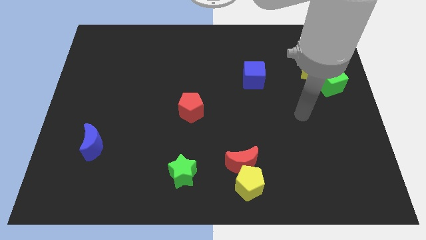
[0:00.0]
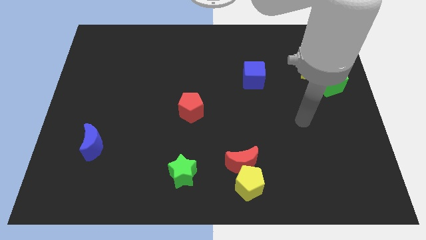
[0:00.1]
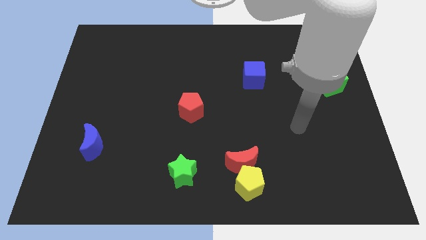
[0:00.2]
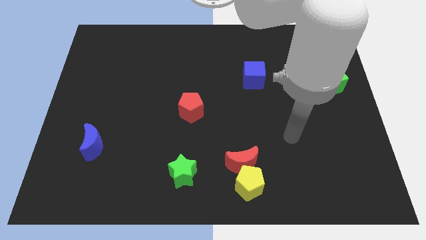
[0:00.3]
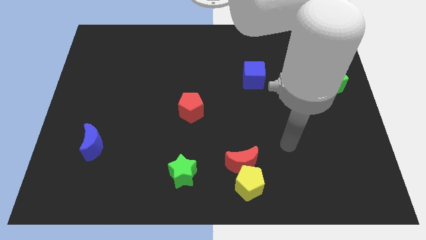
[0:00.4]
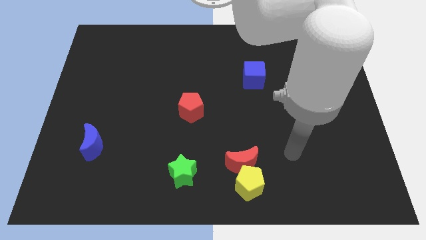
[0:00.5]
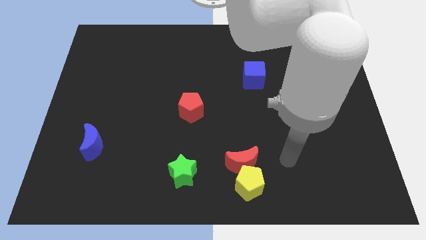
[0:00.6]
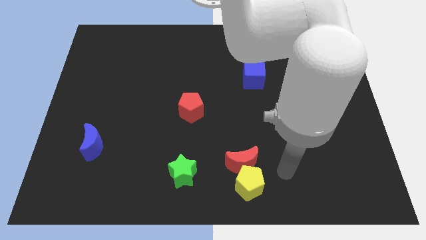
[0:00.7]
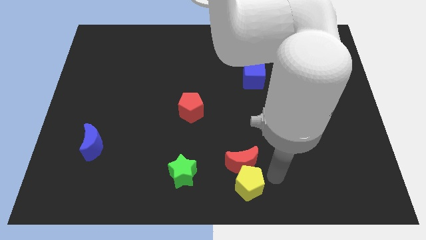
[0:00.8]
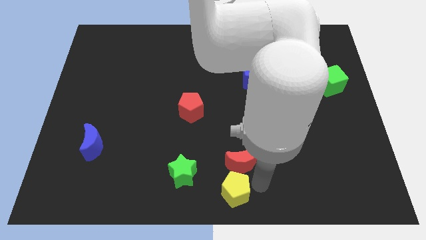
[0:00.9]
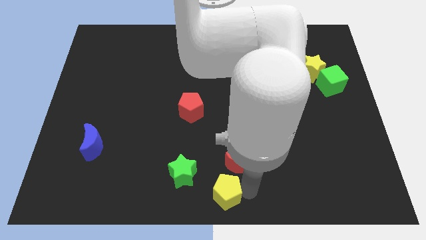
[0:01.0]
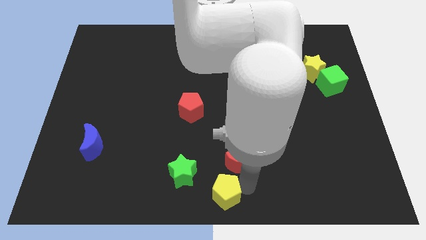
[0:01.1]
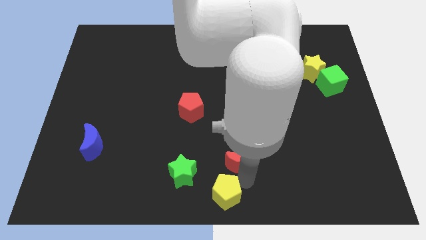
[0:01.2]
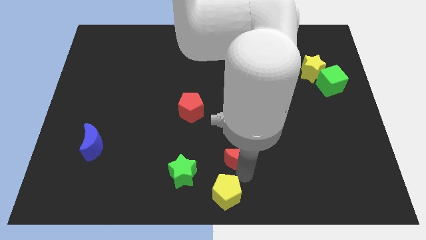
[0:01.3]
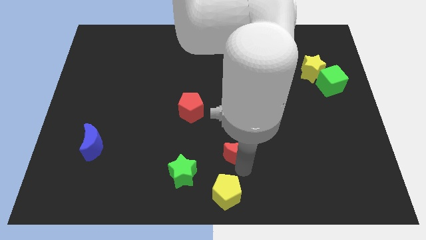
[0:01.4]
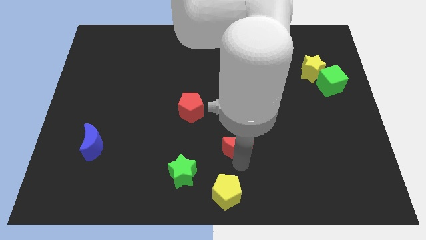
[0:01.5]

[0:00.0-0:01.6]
move the red moon away from the yellow pentagon

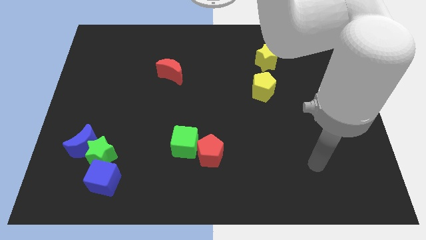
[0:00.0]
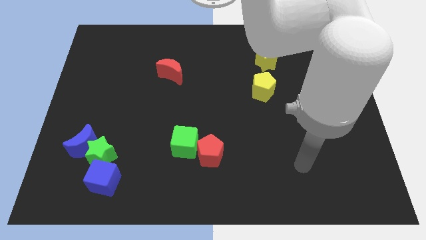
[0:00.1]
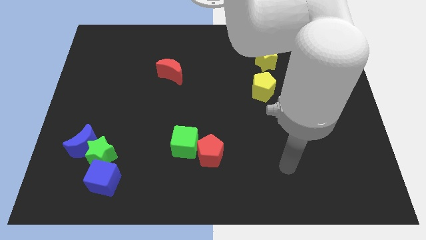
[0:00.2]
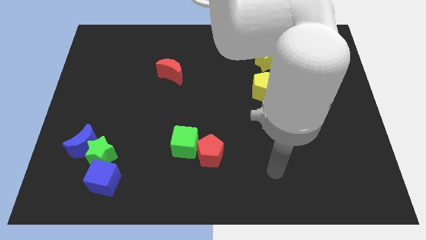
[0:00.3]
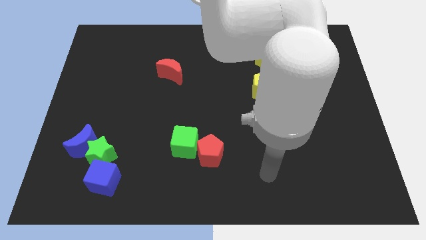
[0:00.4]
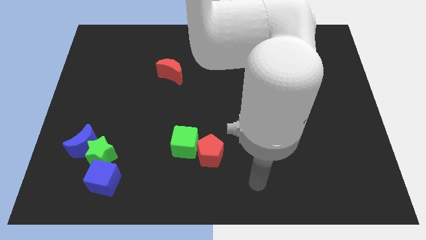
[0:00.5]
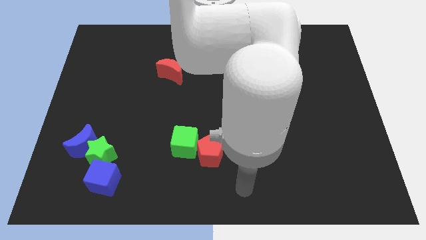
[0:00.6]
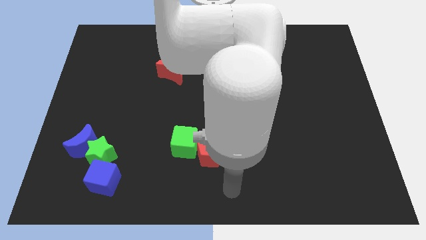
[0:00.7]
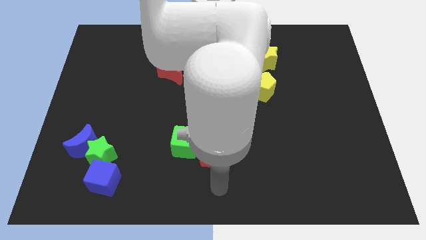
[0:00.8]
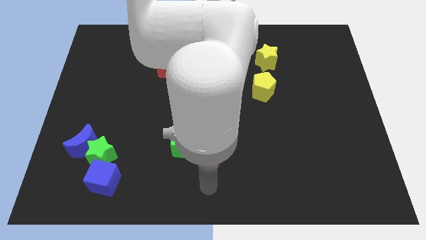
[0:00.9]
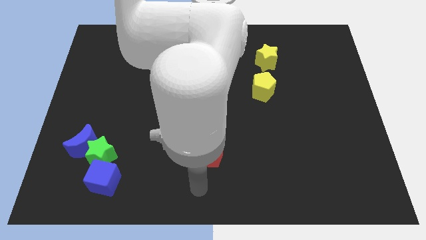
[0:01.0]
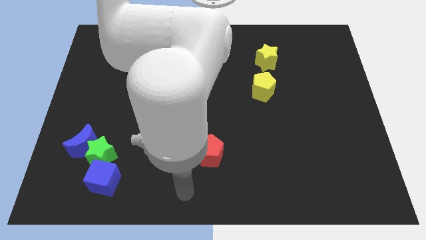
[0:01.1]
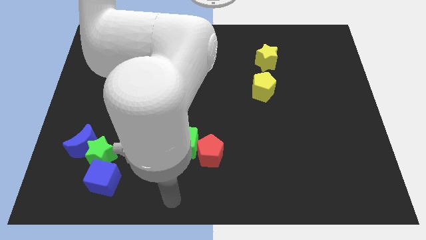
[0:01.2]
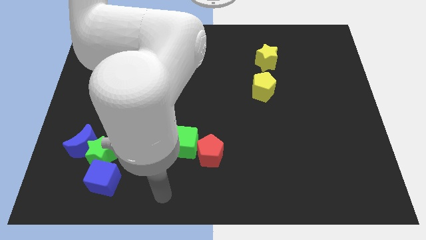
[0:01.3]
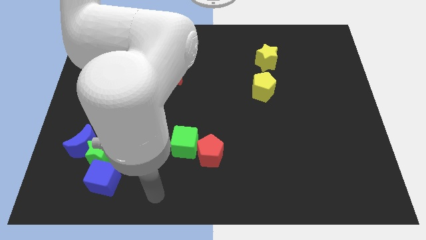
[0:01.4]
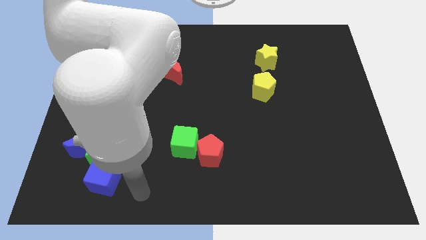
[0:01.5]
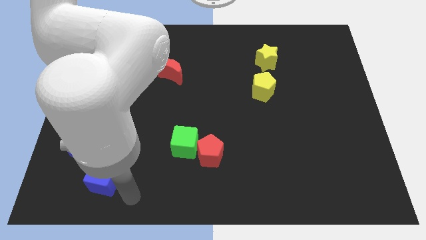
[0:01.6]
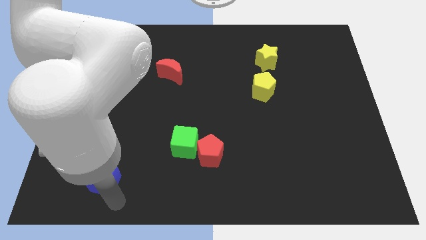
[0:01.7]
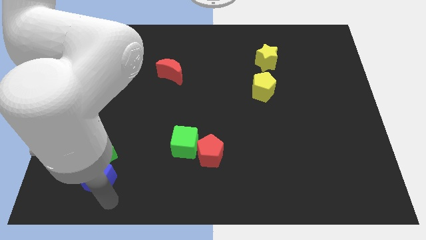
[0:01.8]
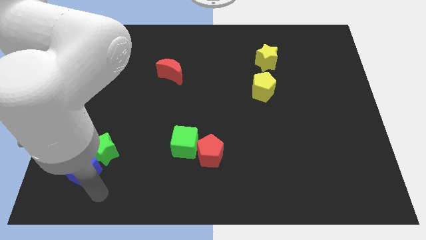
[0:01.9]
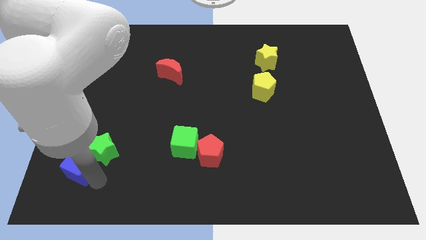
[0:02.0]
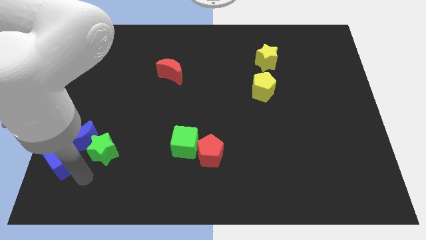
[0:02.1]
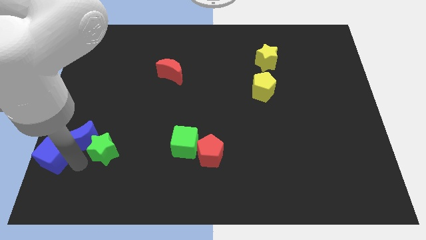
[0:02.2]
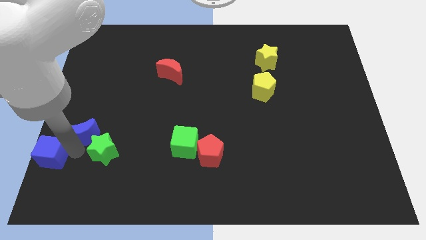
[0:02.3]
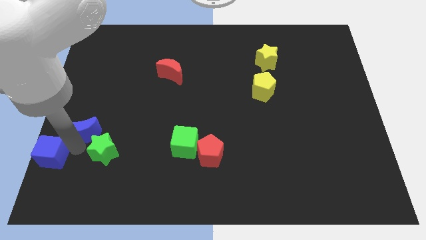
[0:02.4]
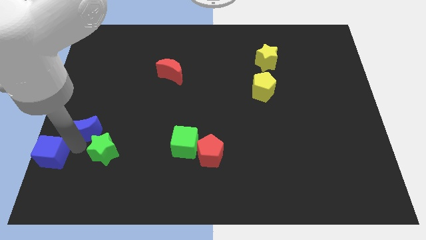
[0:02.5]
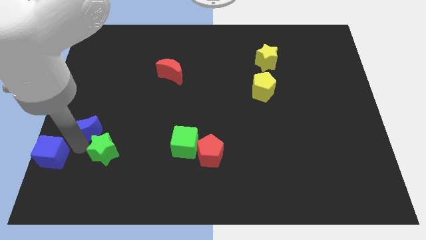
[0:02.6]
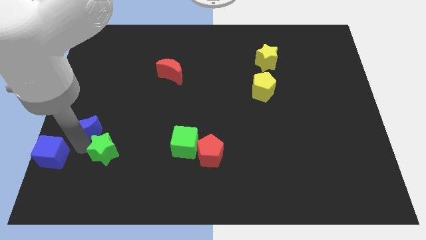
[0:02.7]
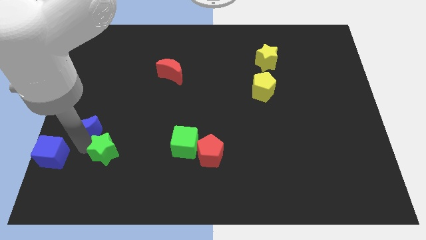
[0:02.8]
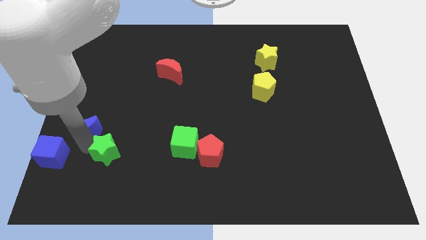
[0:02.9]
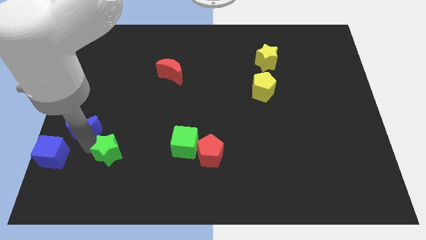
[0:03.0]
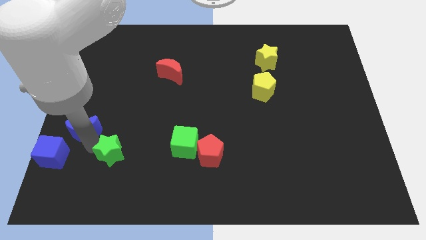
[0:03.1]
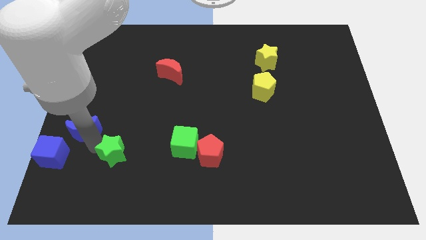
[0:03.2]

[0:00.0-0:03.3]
move the green star away from the blue moon and blue cube

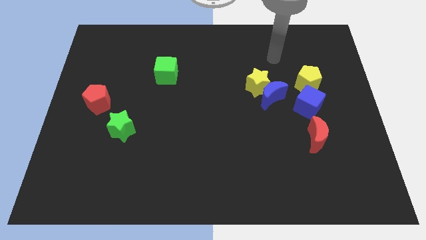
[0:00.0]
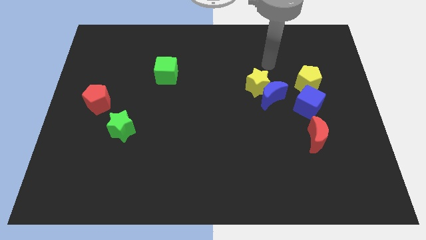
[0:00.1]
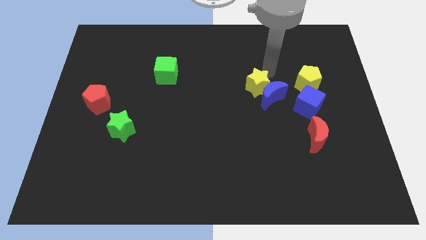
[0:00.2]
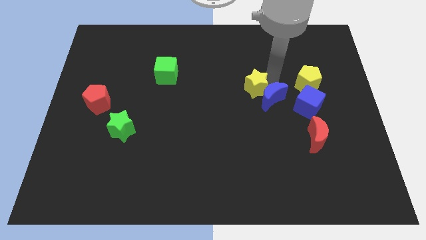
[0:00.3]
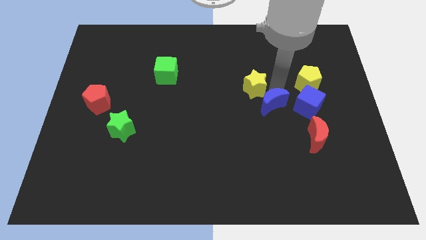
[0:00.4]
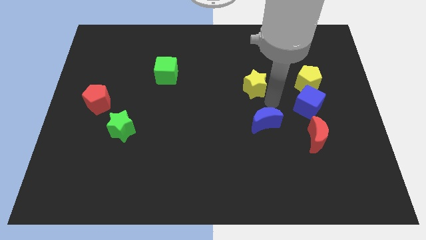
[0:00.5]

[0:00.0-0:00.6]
separate the yellow star from the blue moon

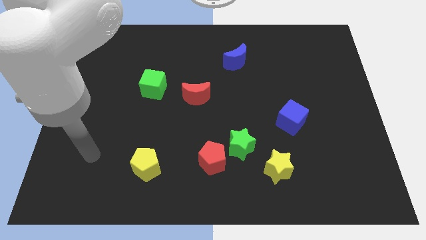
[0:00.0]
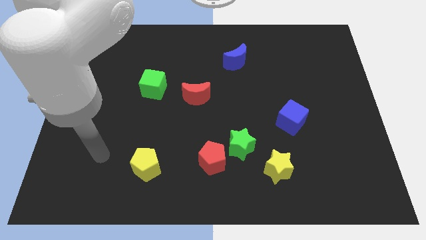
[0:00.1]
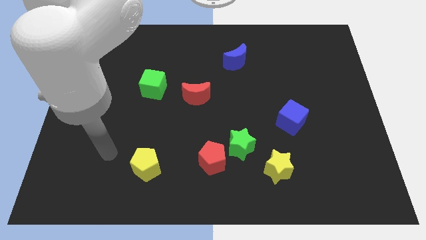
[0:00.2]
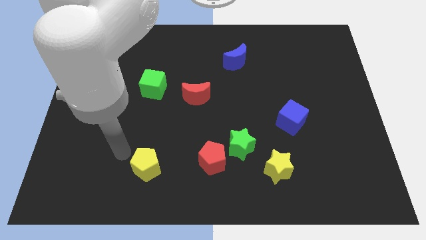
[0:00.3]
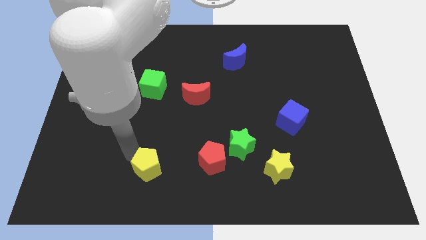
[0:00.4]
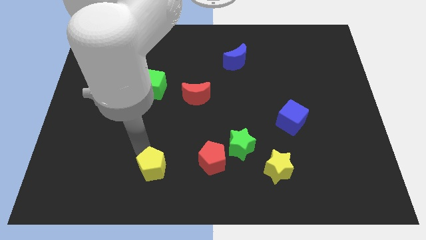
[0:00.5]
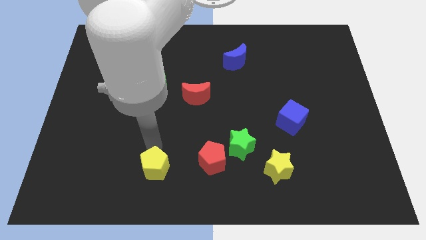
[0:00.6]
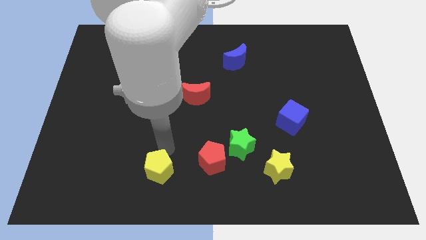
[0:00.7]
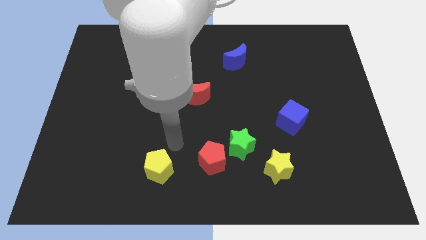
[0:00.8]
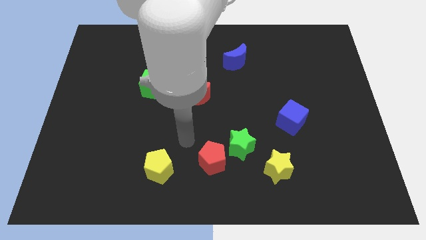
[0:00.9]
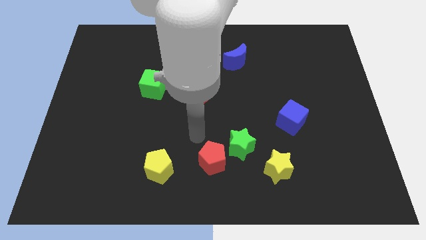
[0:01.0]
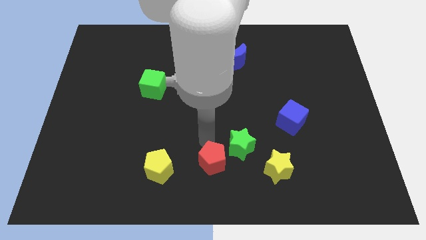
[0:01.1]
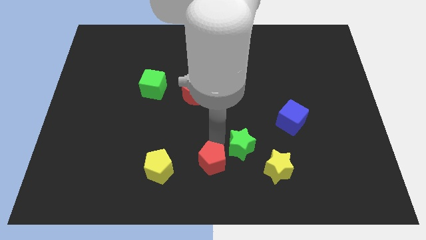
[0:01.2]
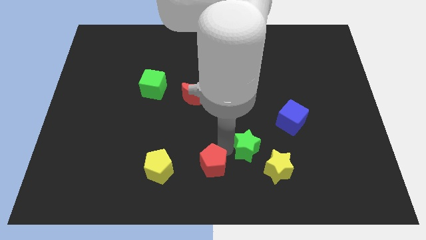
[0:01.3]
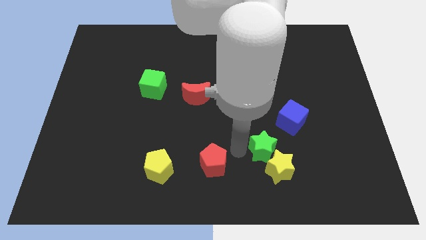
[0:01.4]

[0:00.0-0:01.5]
pull the red pentagon apart from the green star

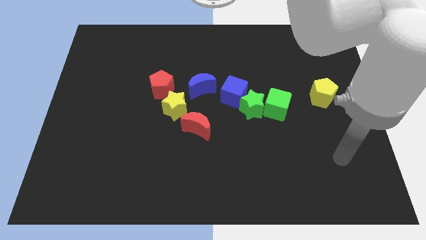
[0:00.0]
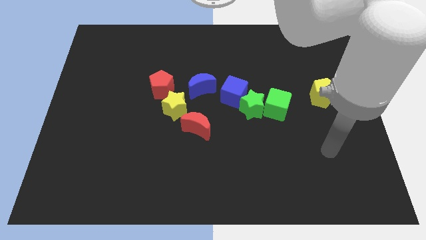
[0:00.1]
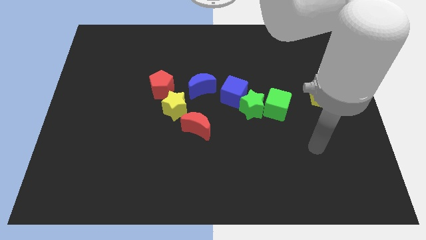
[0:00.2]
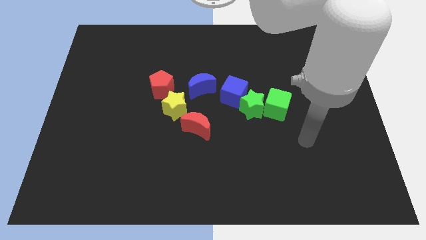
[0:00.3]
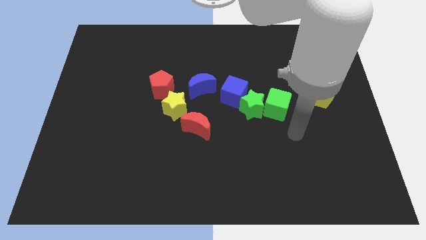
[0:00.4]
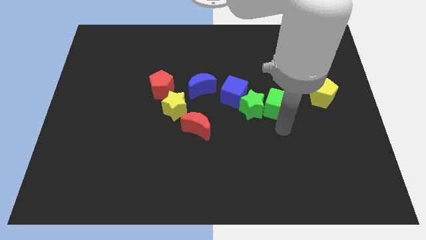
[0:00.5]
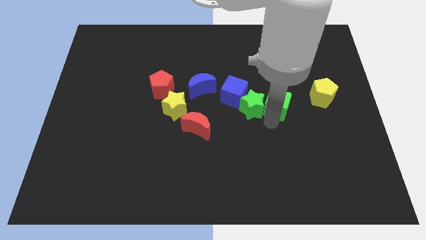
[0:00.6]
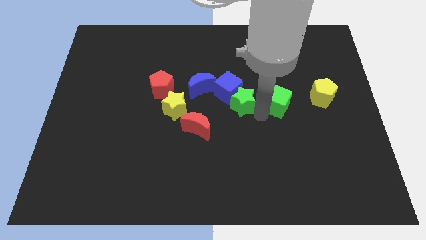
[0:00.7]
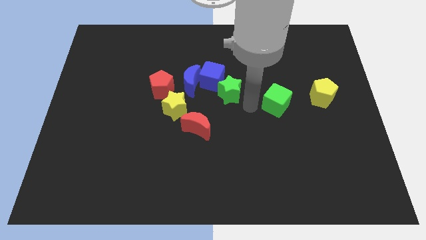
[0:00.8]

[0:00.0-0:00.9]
move the green cube away from the green star

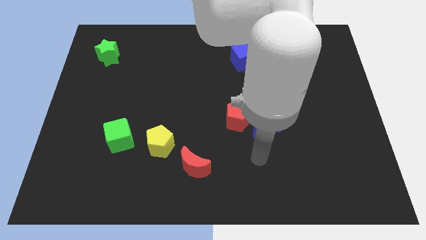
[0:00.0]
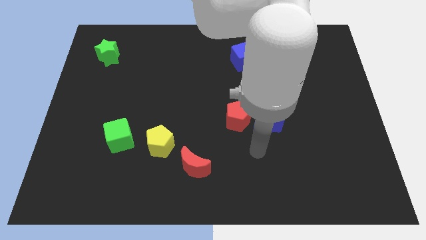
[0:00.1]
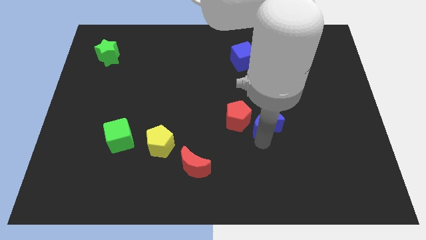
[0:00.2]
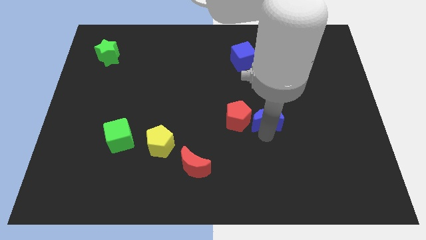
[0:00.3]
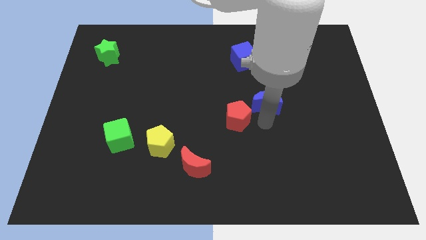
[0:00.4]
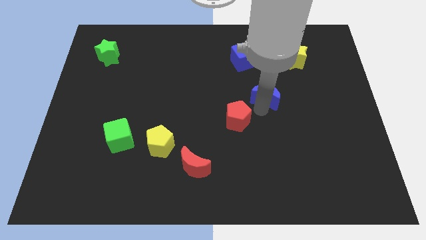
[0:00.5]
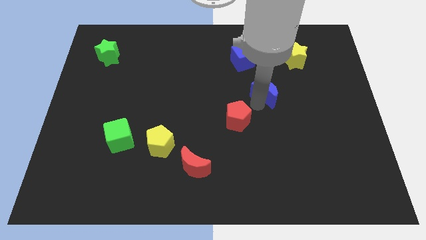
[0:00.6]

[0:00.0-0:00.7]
move the red pentagon away from the blue moon

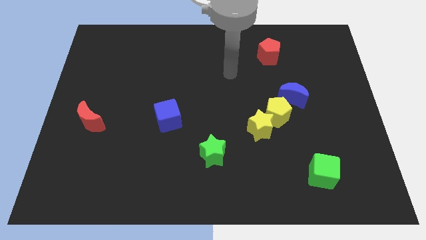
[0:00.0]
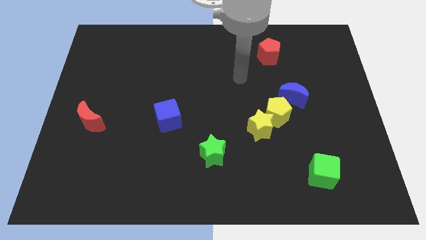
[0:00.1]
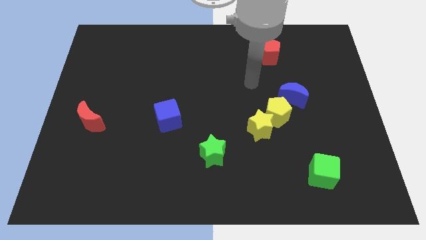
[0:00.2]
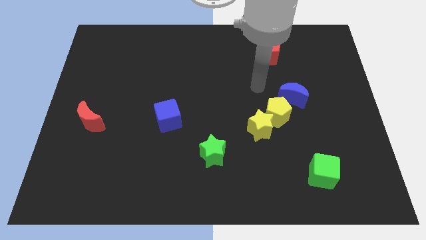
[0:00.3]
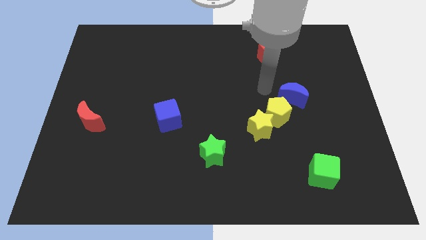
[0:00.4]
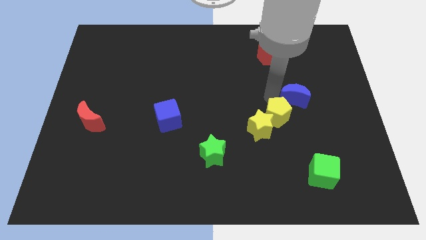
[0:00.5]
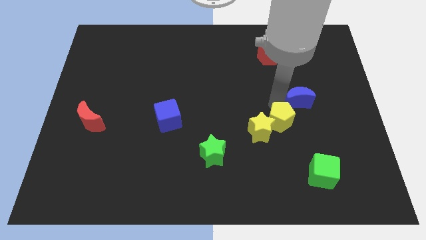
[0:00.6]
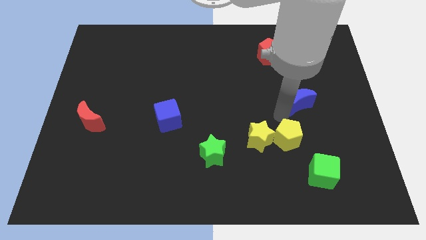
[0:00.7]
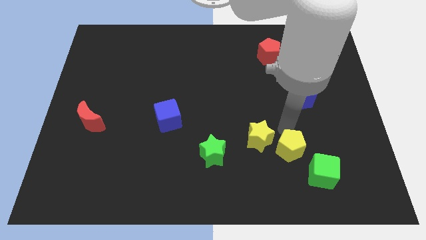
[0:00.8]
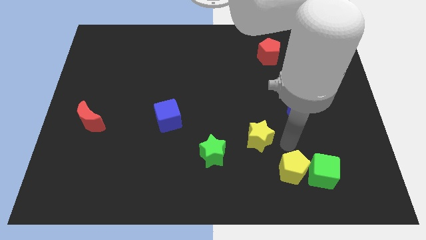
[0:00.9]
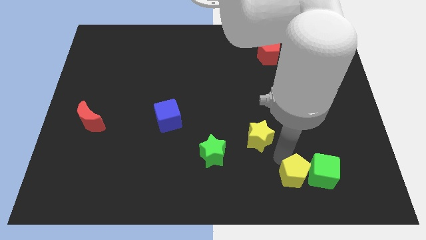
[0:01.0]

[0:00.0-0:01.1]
move the yellow star away from the yellow pentagon
